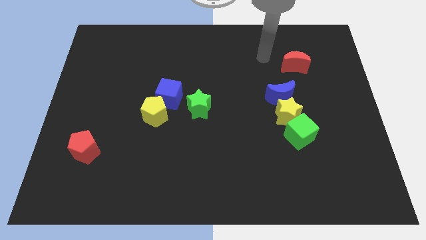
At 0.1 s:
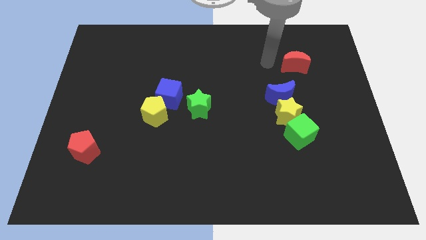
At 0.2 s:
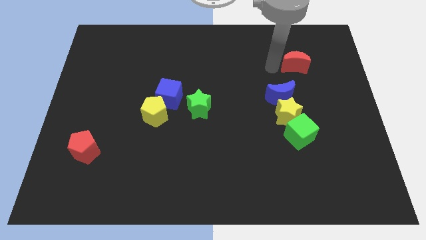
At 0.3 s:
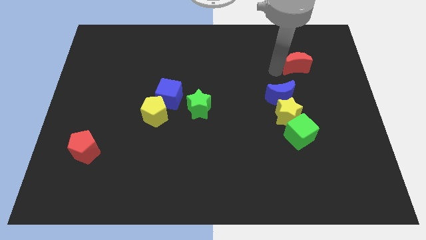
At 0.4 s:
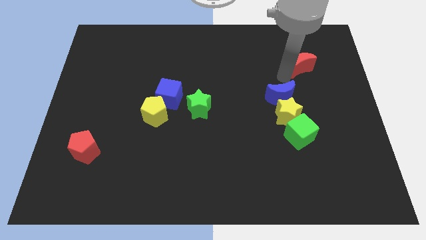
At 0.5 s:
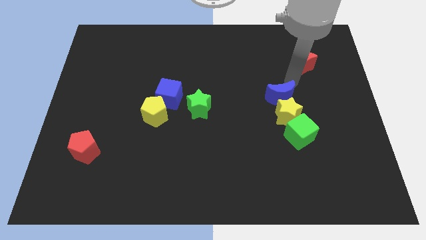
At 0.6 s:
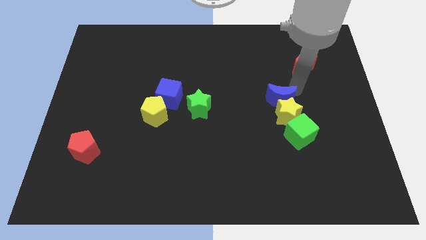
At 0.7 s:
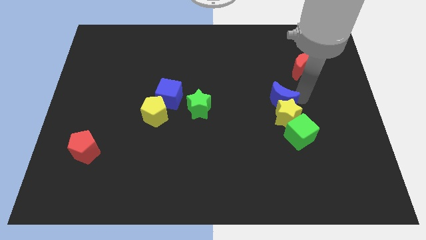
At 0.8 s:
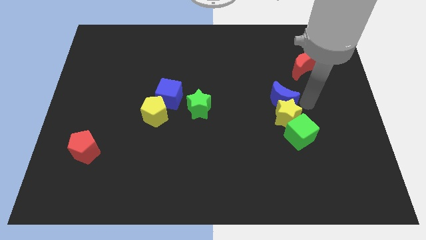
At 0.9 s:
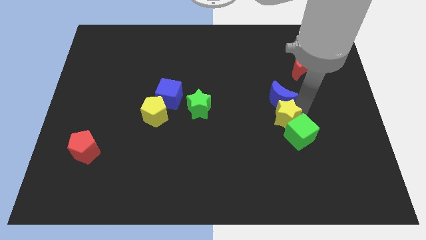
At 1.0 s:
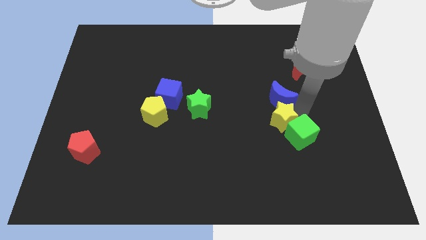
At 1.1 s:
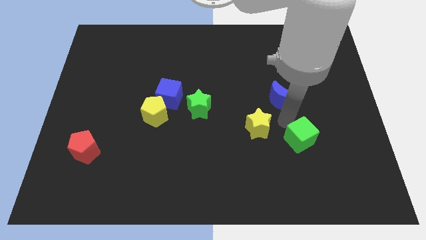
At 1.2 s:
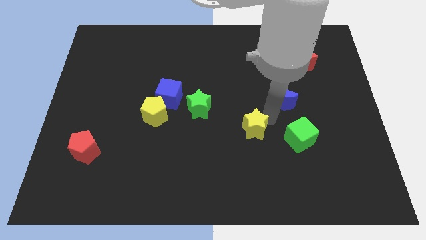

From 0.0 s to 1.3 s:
separate the blue moon from the yellow star

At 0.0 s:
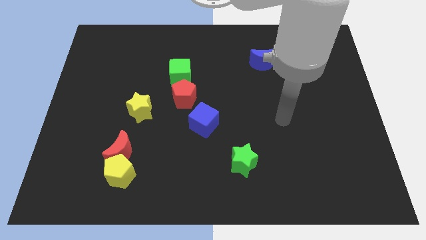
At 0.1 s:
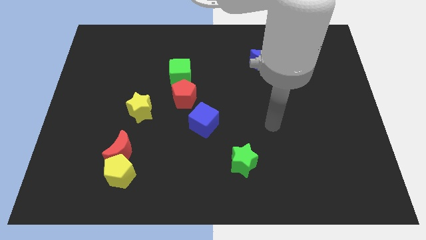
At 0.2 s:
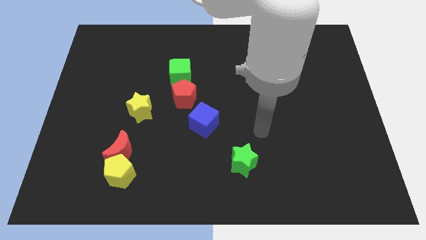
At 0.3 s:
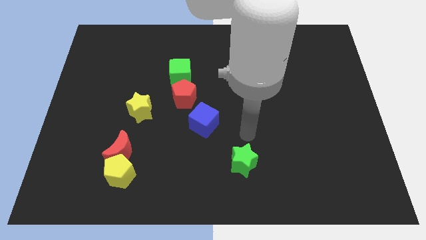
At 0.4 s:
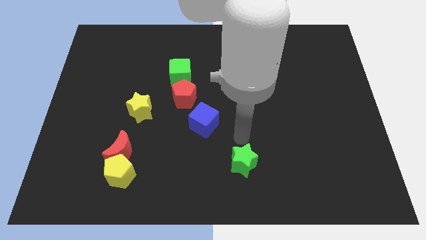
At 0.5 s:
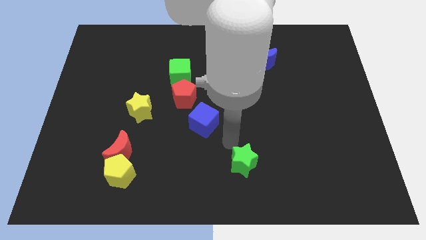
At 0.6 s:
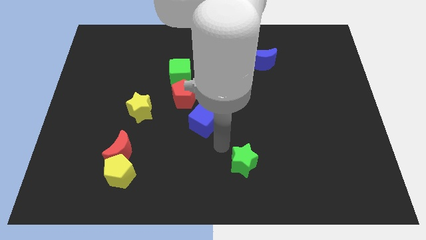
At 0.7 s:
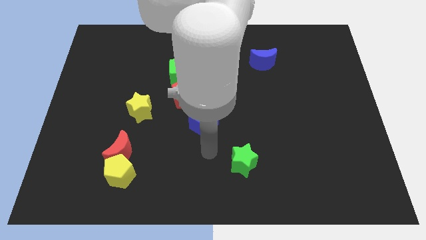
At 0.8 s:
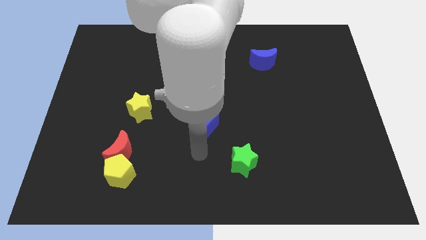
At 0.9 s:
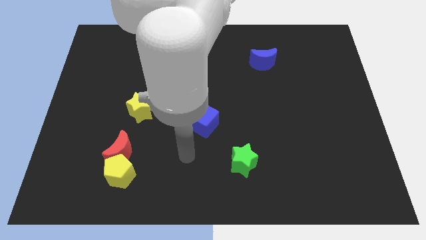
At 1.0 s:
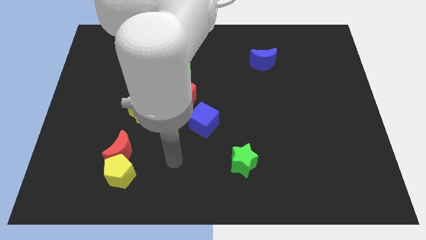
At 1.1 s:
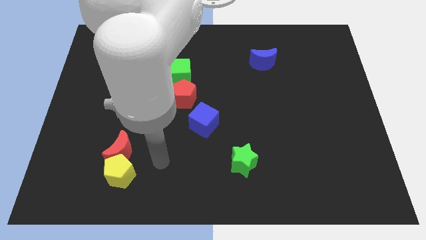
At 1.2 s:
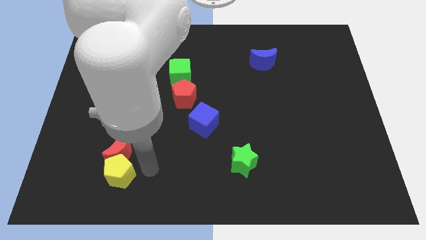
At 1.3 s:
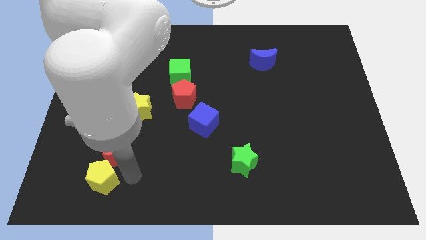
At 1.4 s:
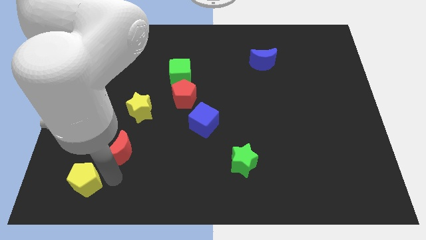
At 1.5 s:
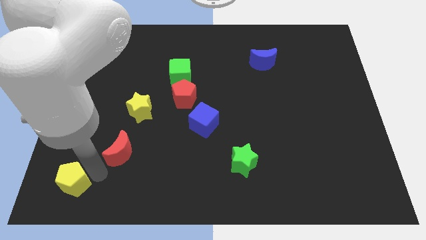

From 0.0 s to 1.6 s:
pull the red moon apart from the yellow pentagon

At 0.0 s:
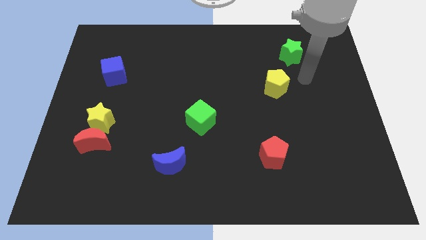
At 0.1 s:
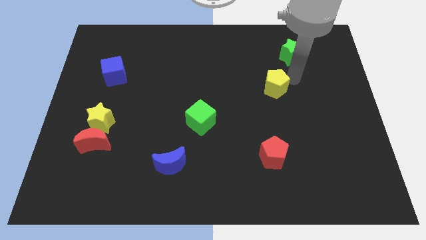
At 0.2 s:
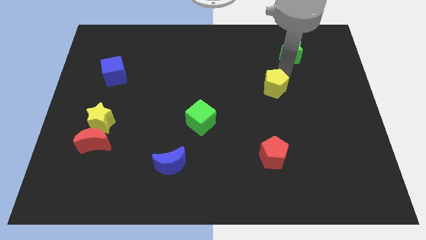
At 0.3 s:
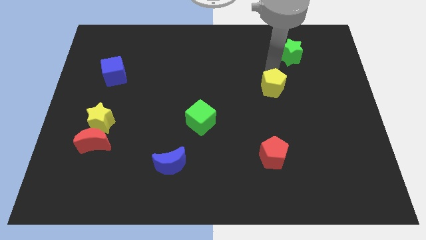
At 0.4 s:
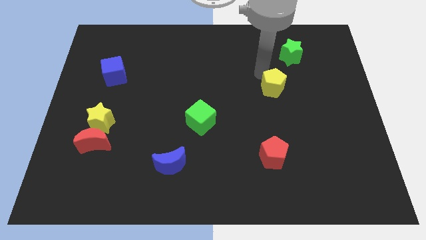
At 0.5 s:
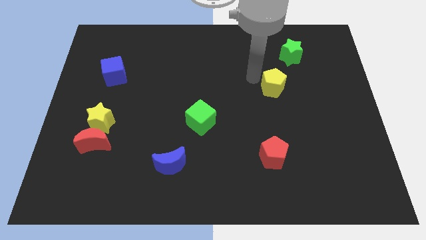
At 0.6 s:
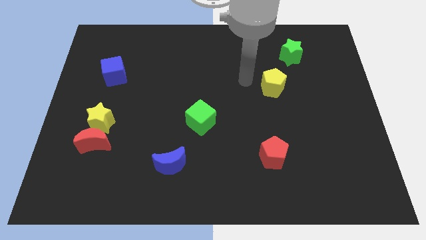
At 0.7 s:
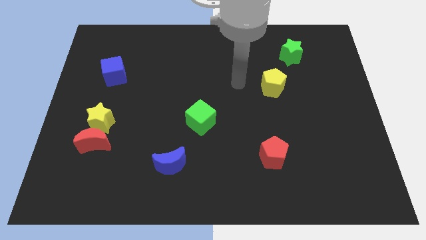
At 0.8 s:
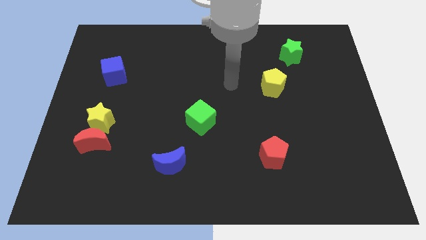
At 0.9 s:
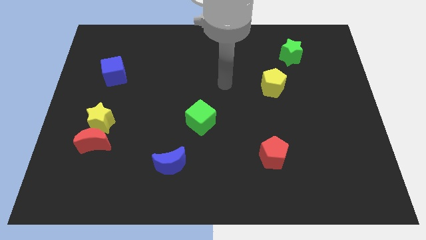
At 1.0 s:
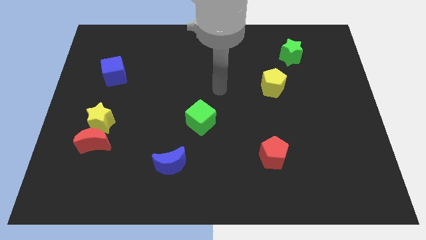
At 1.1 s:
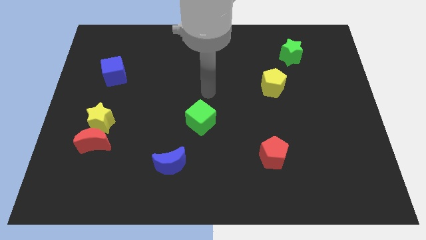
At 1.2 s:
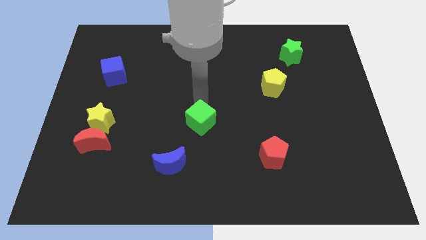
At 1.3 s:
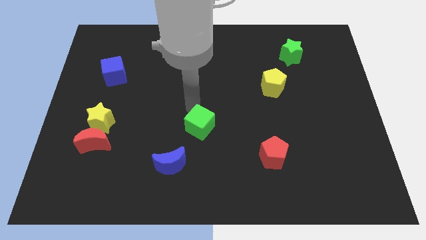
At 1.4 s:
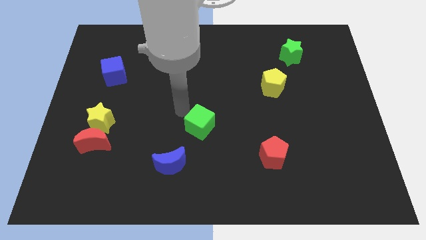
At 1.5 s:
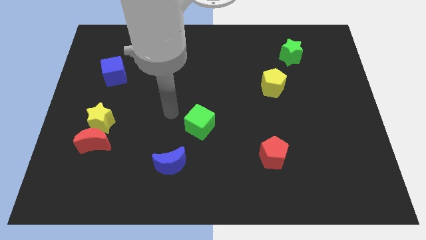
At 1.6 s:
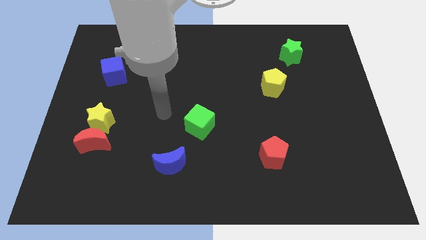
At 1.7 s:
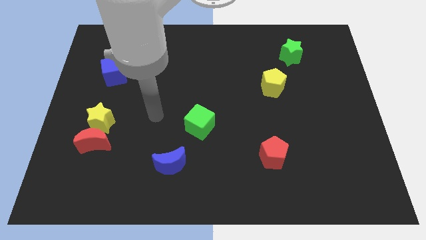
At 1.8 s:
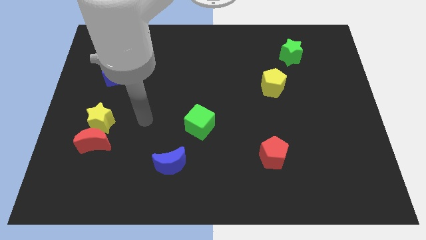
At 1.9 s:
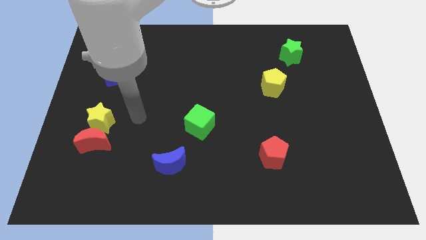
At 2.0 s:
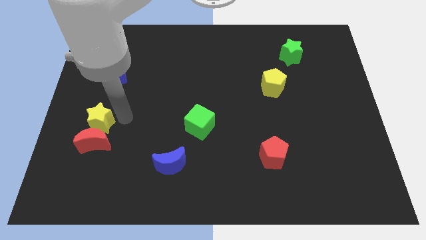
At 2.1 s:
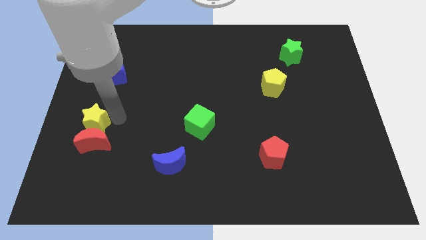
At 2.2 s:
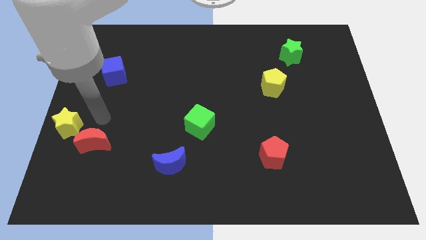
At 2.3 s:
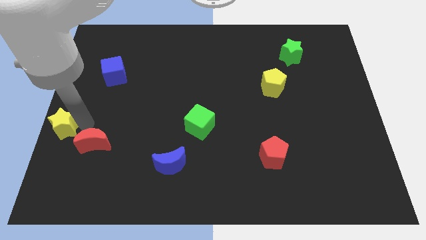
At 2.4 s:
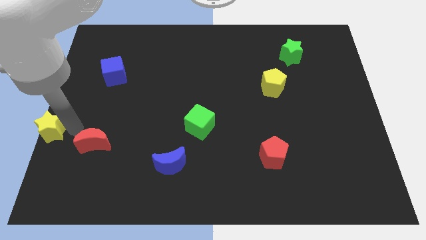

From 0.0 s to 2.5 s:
separate the red moon from the yellow star

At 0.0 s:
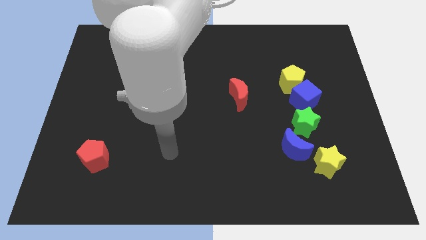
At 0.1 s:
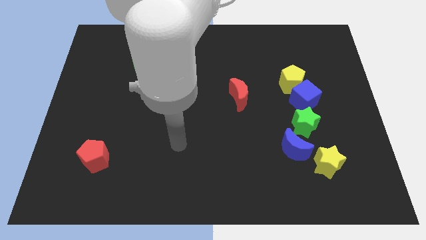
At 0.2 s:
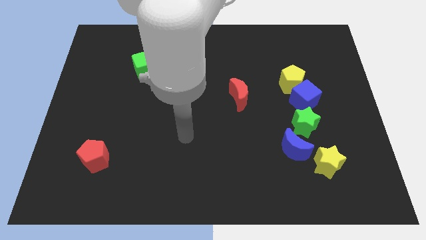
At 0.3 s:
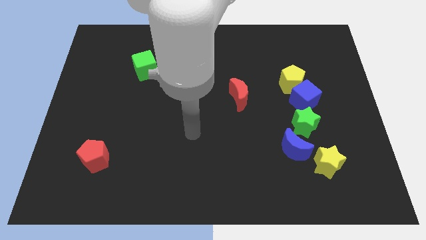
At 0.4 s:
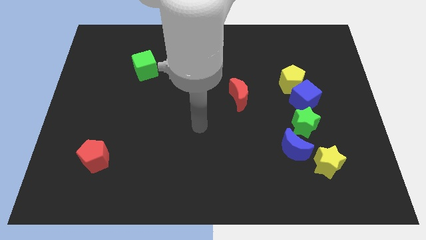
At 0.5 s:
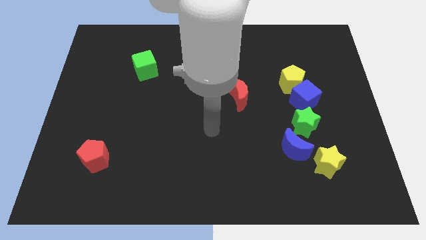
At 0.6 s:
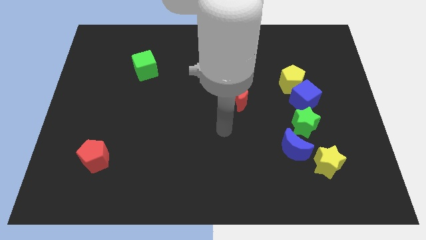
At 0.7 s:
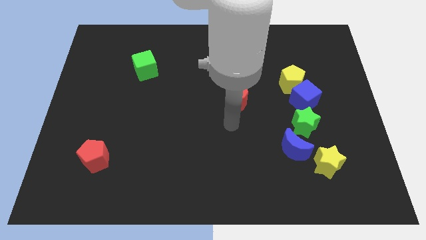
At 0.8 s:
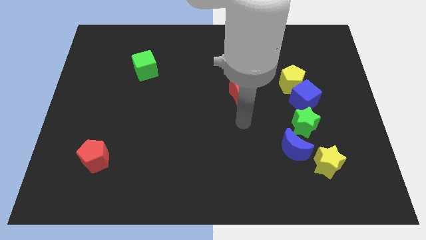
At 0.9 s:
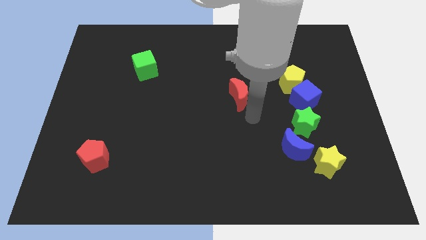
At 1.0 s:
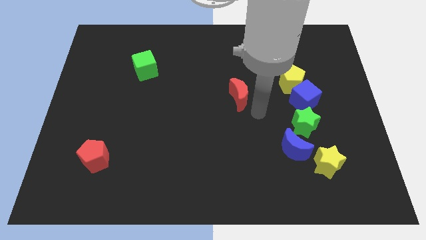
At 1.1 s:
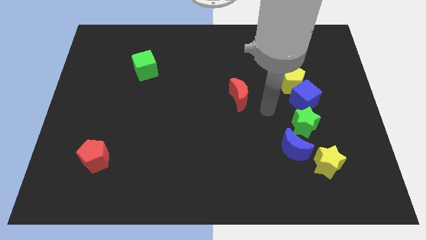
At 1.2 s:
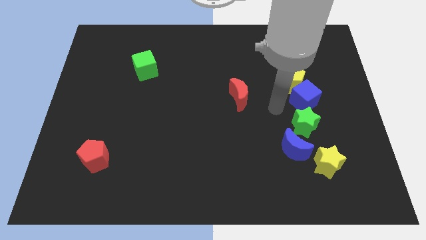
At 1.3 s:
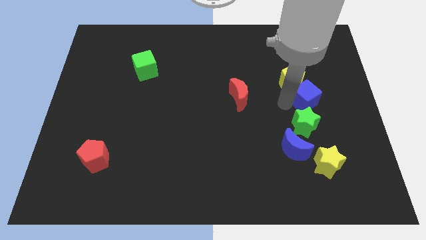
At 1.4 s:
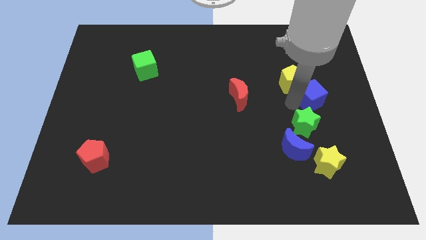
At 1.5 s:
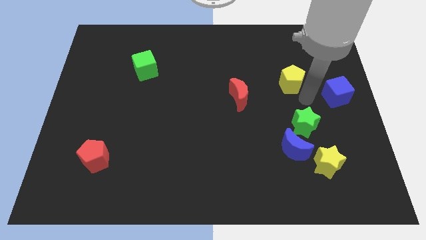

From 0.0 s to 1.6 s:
pull the yellow pentagon apart from the blue cube

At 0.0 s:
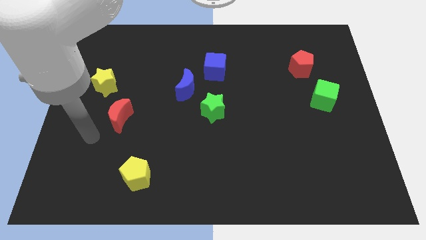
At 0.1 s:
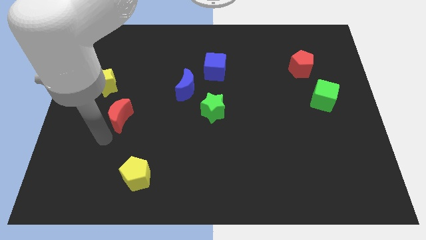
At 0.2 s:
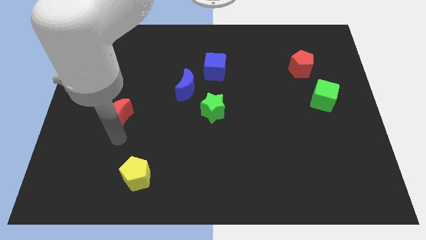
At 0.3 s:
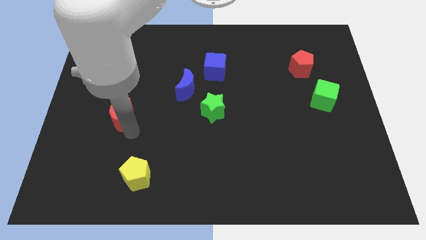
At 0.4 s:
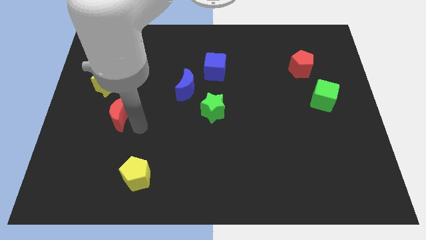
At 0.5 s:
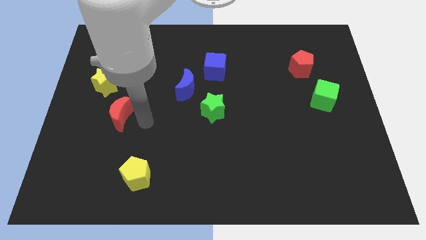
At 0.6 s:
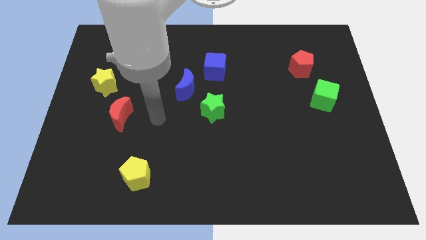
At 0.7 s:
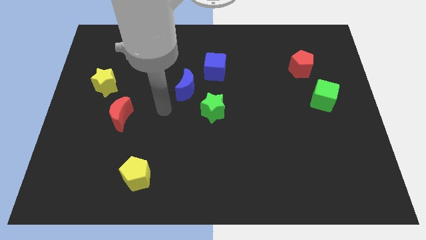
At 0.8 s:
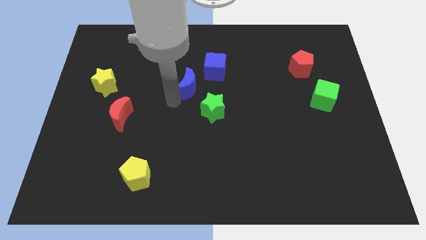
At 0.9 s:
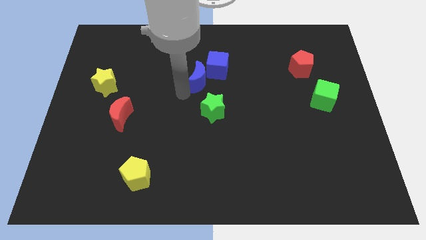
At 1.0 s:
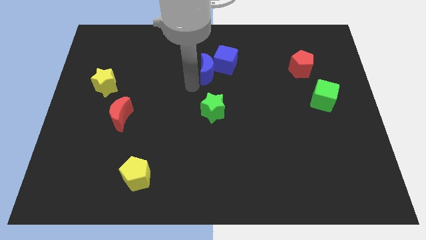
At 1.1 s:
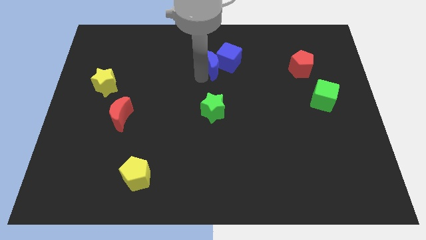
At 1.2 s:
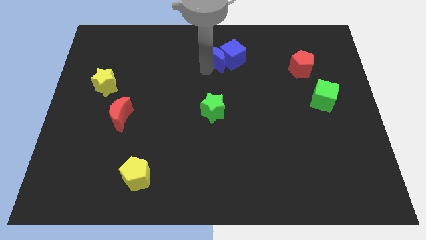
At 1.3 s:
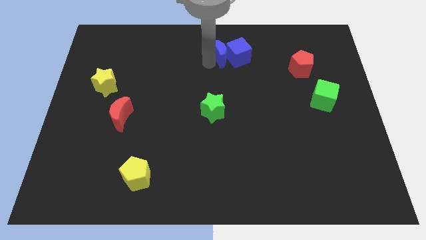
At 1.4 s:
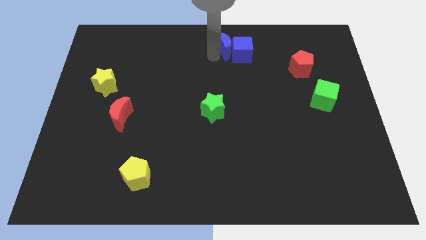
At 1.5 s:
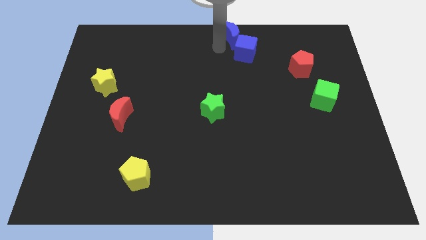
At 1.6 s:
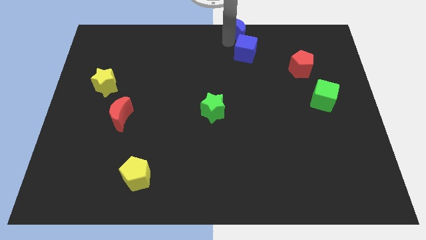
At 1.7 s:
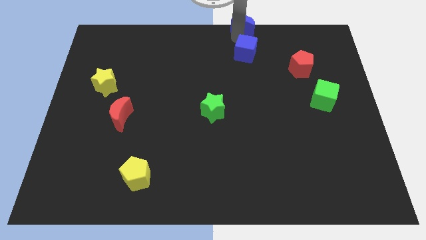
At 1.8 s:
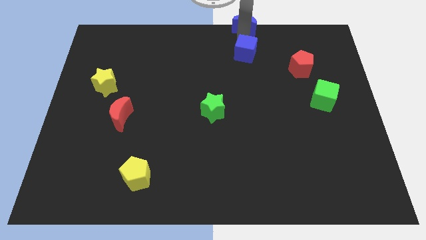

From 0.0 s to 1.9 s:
pull the blue cube apart from the blue moon

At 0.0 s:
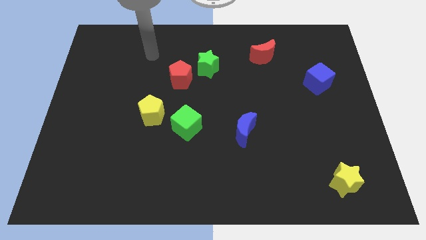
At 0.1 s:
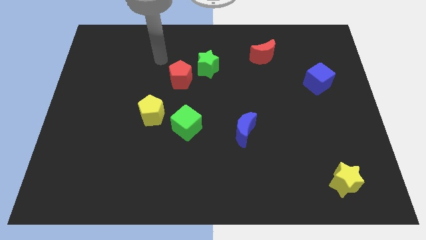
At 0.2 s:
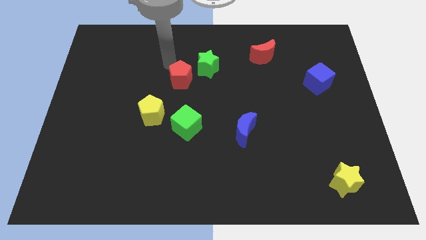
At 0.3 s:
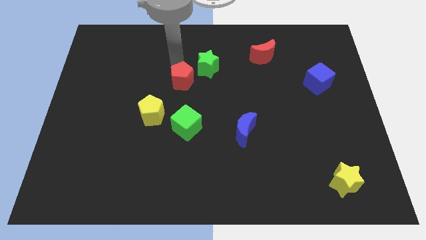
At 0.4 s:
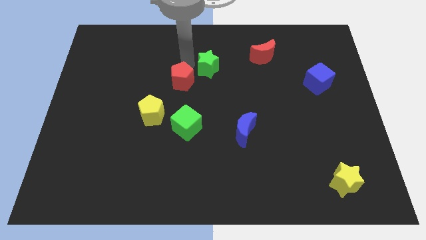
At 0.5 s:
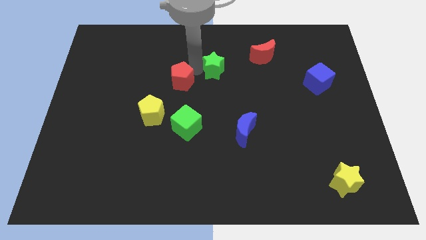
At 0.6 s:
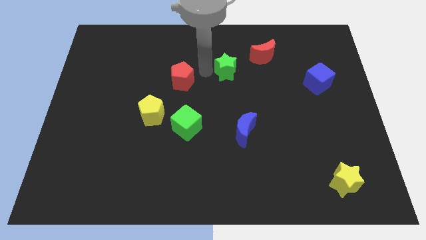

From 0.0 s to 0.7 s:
separate the red pentagon from the green star
